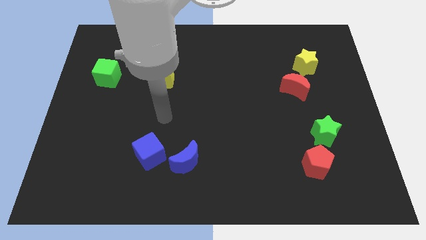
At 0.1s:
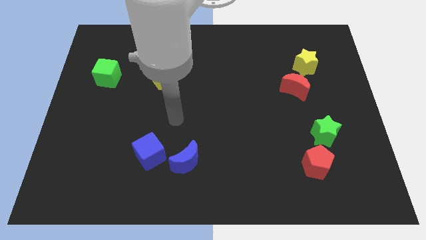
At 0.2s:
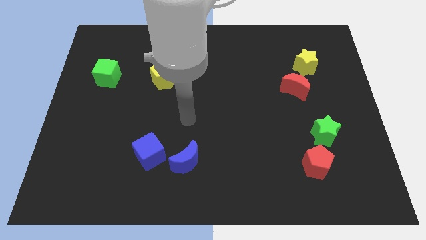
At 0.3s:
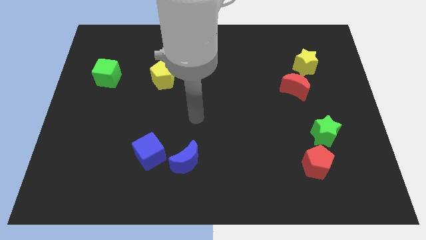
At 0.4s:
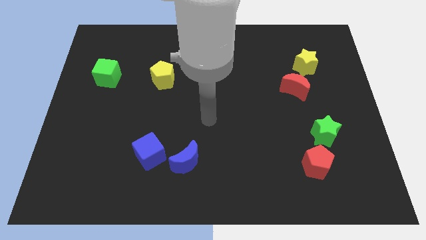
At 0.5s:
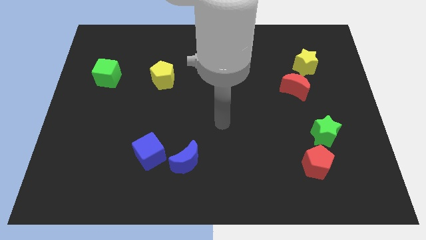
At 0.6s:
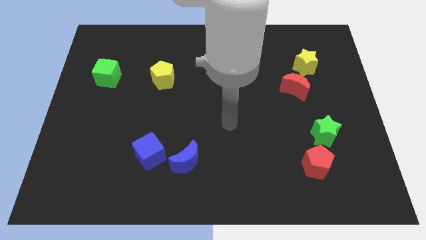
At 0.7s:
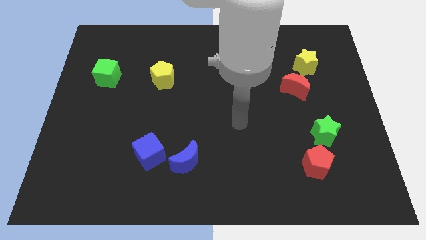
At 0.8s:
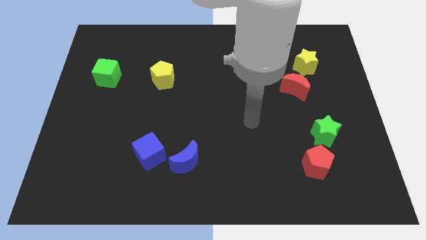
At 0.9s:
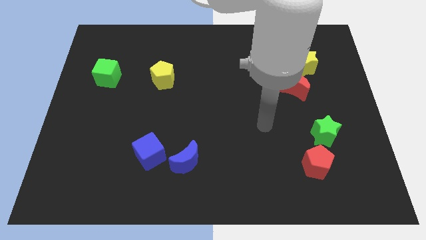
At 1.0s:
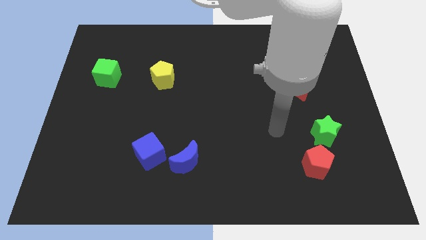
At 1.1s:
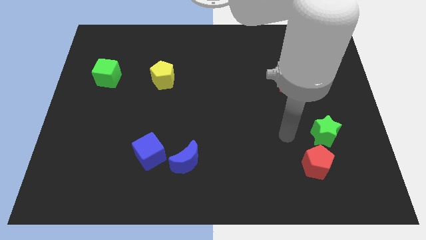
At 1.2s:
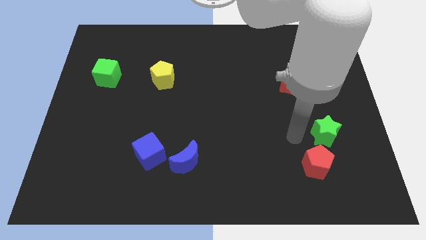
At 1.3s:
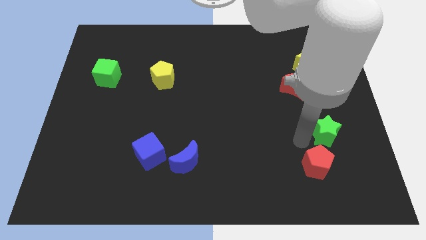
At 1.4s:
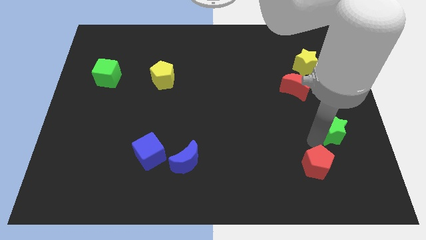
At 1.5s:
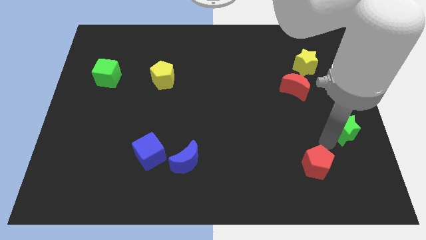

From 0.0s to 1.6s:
move the red pentagon away from the green star

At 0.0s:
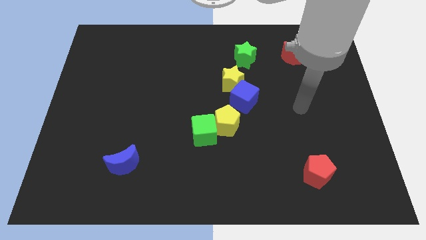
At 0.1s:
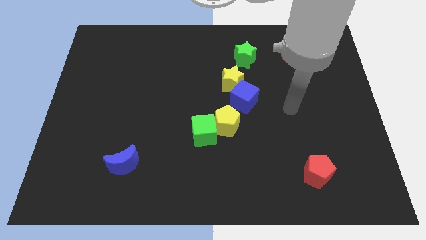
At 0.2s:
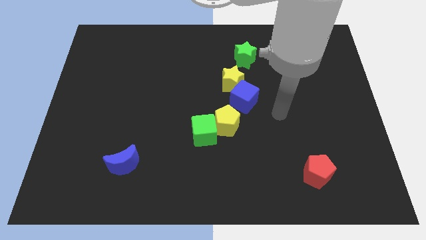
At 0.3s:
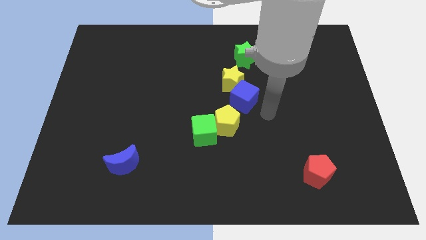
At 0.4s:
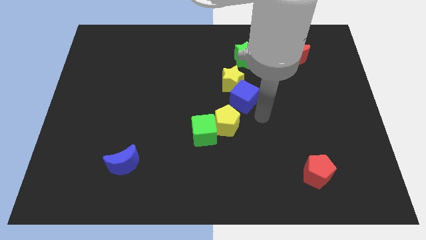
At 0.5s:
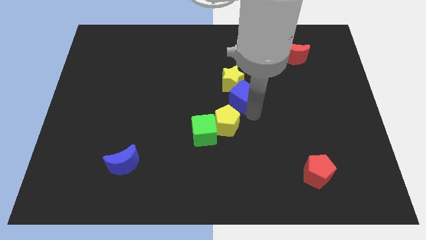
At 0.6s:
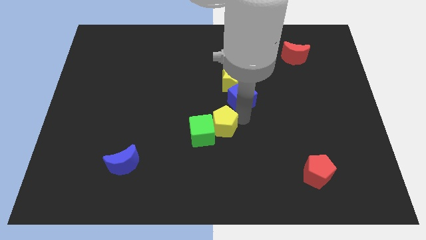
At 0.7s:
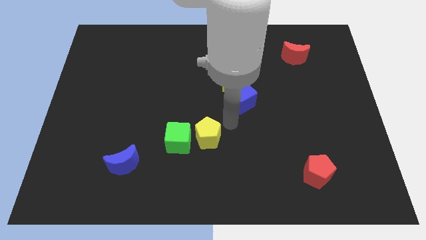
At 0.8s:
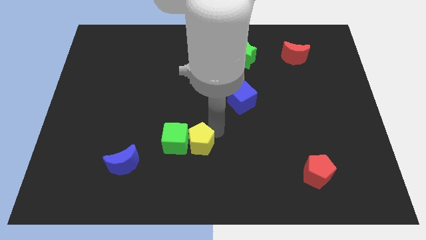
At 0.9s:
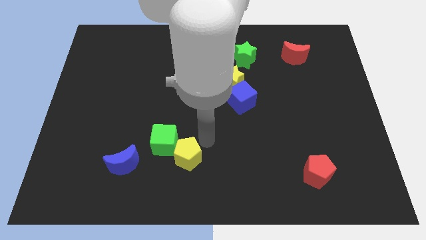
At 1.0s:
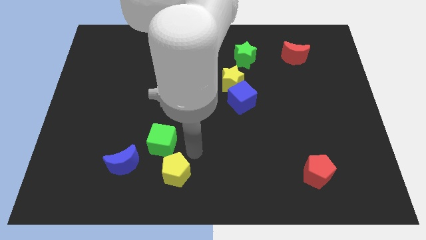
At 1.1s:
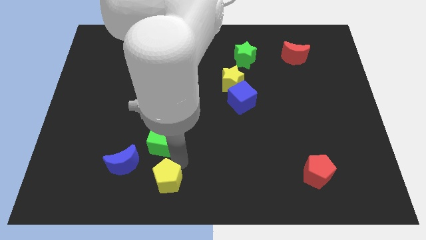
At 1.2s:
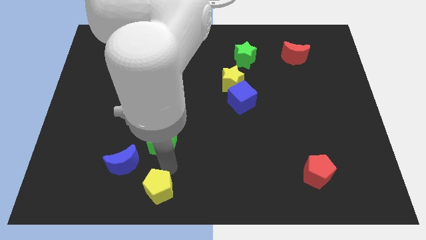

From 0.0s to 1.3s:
separate the green cube from the yellow pentagon

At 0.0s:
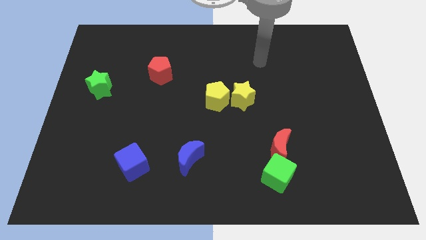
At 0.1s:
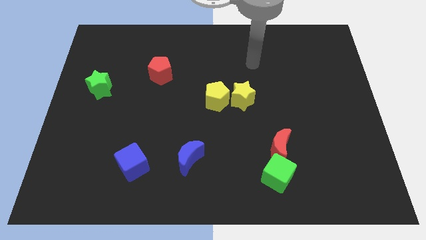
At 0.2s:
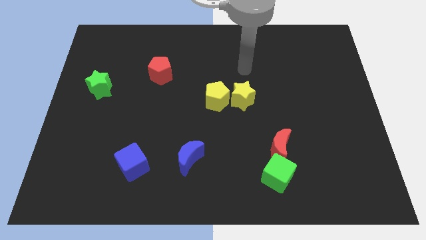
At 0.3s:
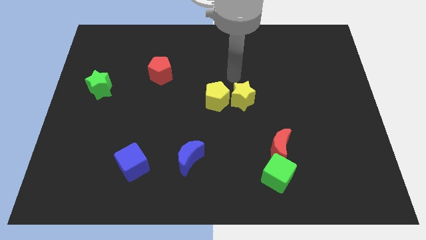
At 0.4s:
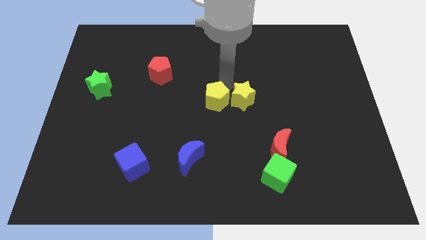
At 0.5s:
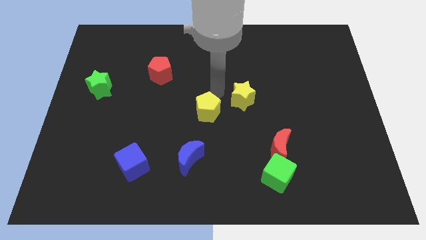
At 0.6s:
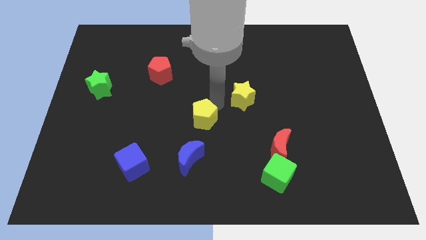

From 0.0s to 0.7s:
move the yellow star away from the yellow pentagon

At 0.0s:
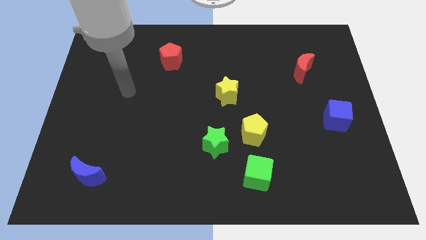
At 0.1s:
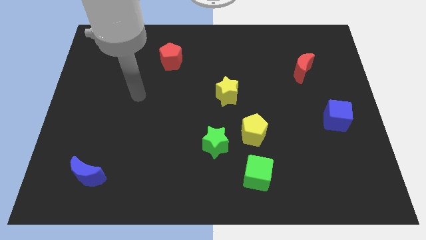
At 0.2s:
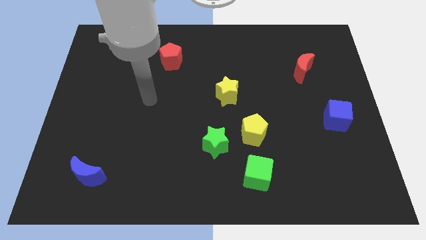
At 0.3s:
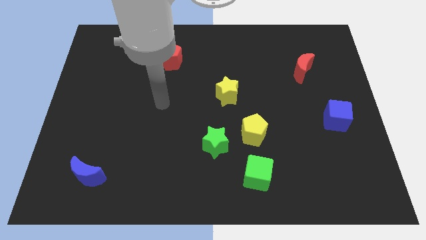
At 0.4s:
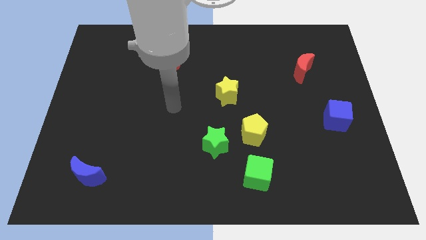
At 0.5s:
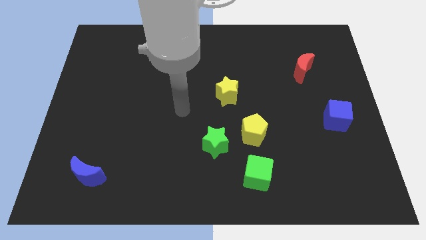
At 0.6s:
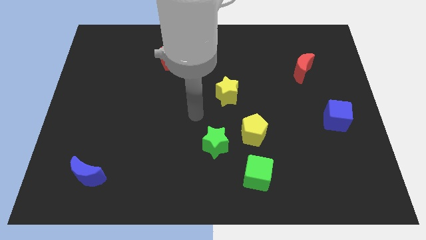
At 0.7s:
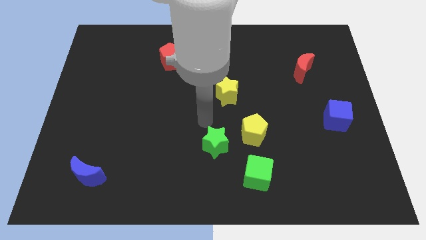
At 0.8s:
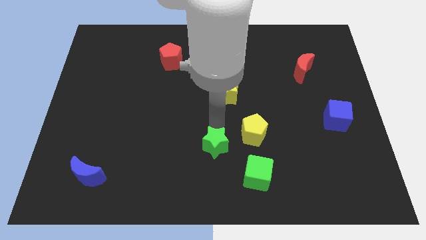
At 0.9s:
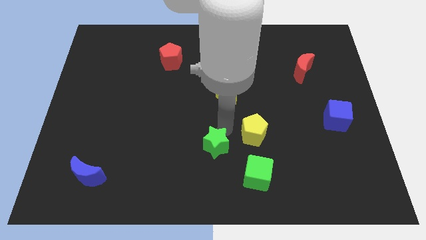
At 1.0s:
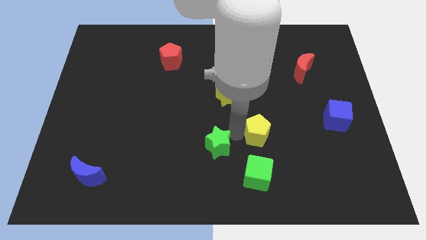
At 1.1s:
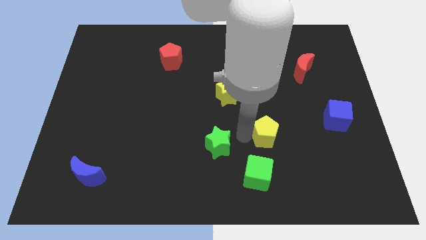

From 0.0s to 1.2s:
move the green star away from the yellow pentagon

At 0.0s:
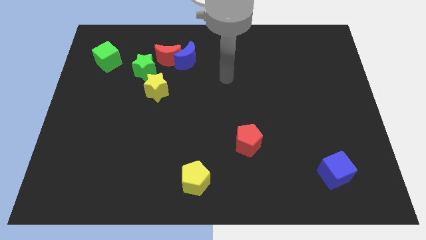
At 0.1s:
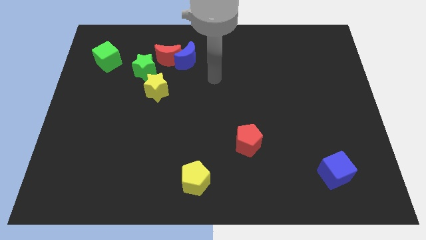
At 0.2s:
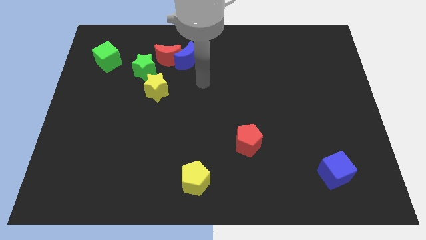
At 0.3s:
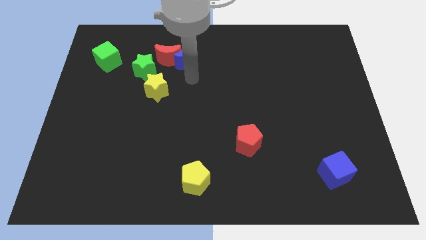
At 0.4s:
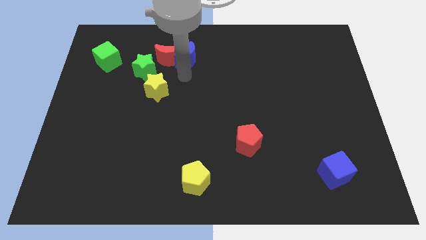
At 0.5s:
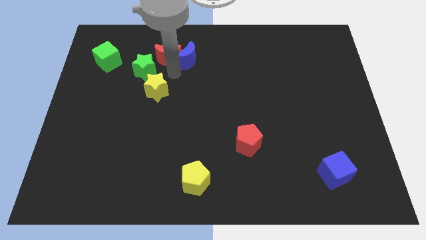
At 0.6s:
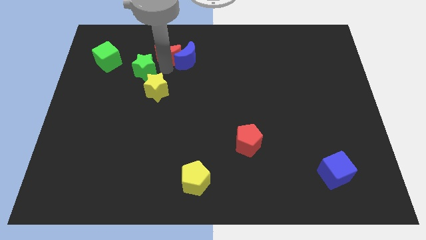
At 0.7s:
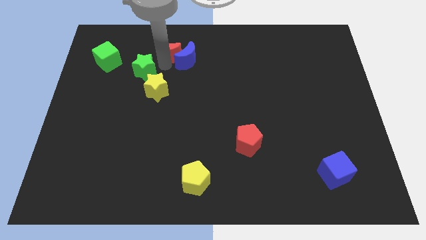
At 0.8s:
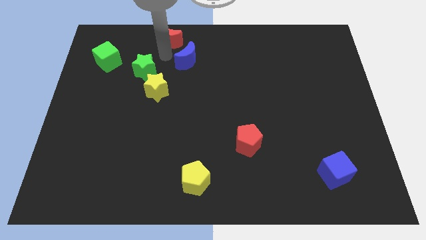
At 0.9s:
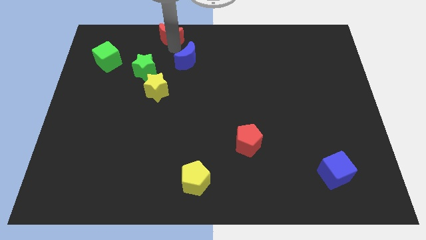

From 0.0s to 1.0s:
separate the blue moon from the red moon

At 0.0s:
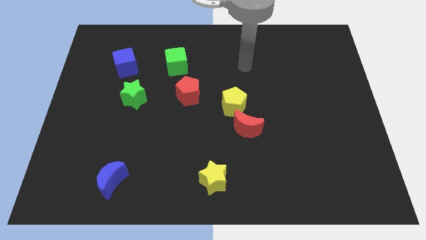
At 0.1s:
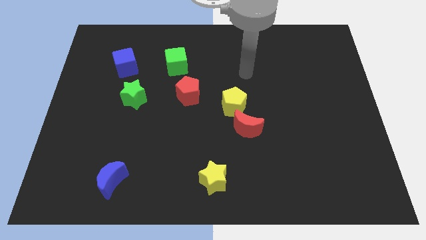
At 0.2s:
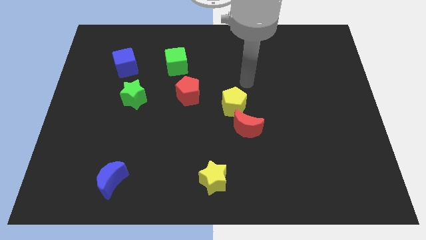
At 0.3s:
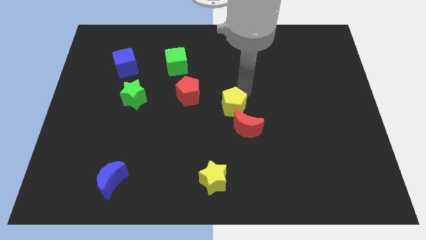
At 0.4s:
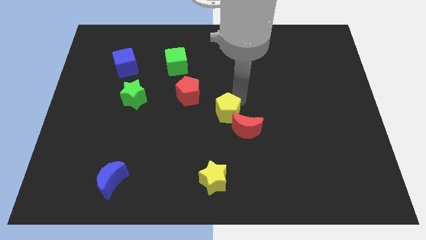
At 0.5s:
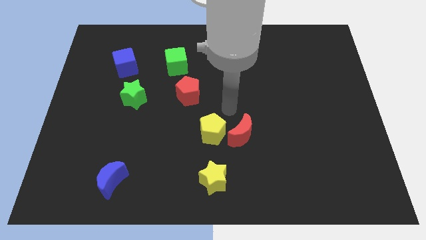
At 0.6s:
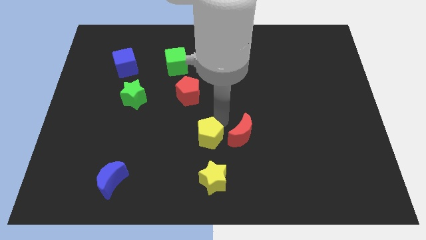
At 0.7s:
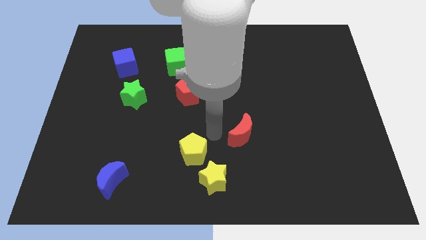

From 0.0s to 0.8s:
separate the red moon from the yellow pentagon

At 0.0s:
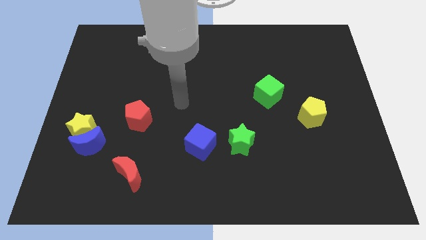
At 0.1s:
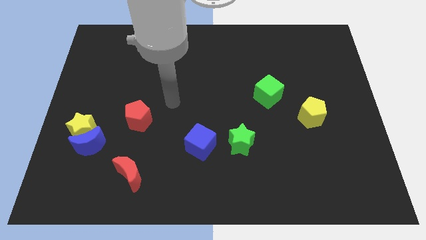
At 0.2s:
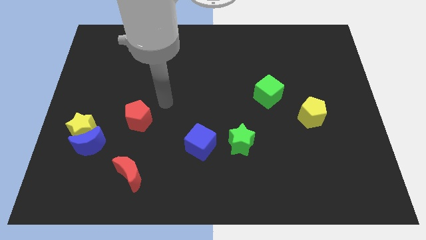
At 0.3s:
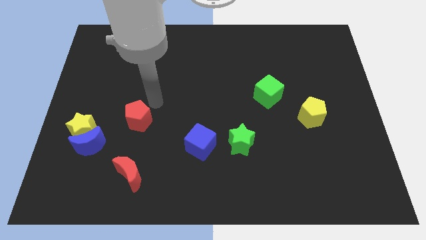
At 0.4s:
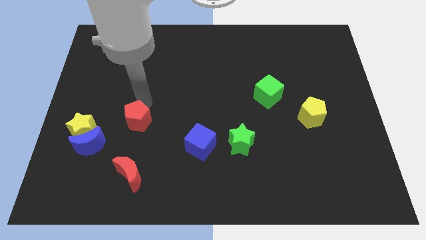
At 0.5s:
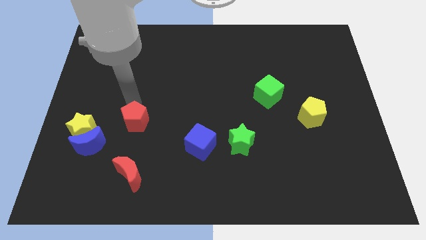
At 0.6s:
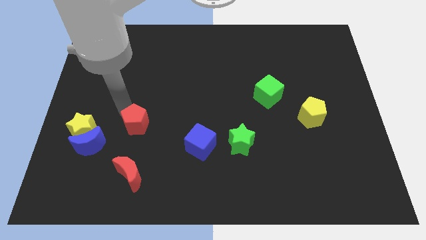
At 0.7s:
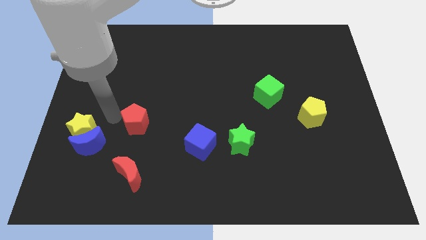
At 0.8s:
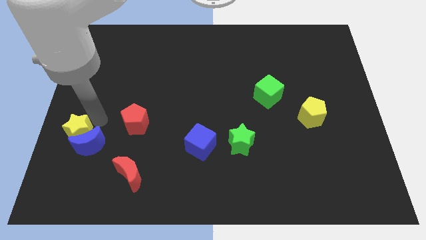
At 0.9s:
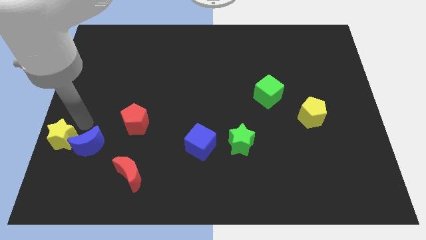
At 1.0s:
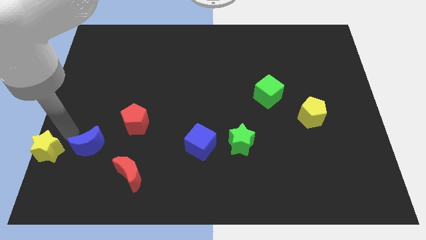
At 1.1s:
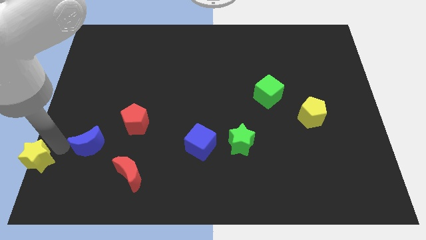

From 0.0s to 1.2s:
move the blue moon away from the yellow star

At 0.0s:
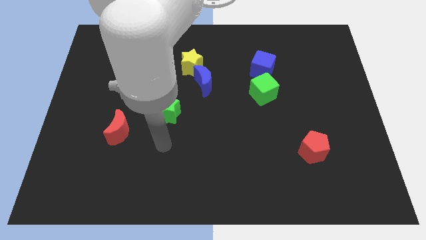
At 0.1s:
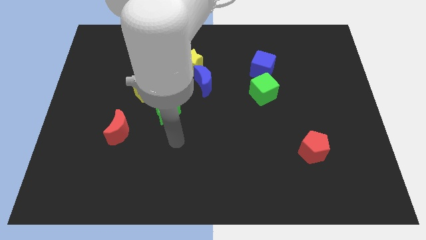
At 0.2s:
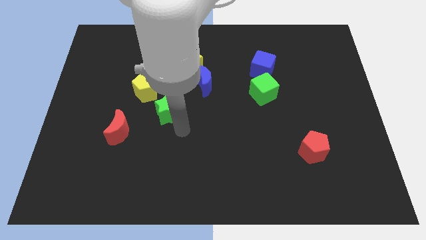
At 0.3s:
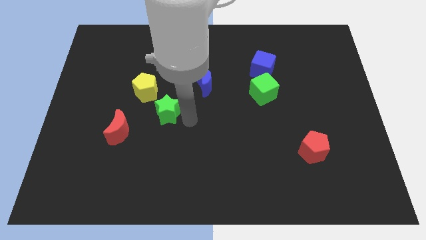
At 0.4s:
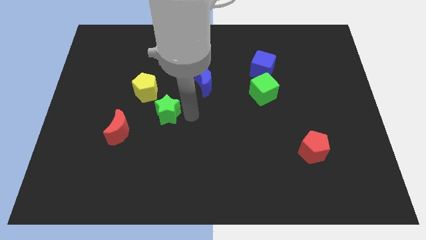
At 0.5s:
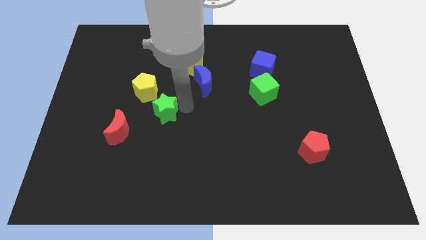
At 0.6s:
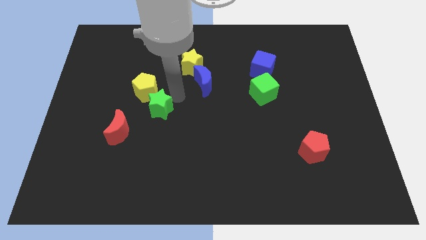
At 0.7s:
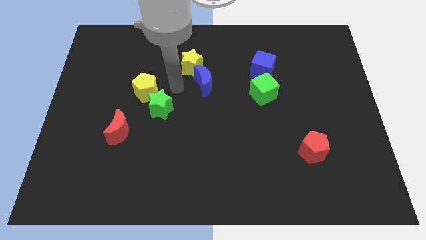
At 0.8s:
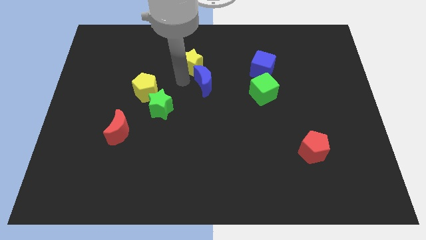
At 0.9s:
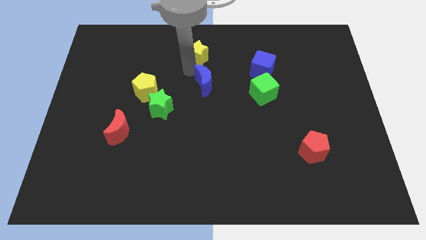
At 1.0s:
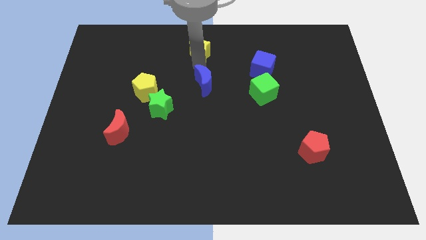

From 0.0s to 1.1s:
pull the blue moon apart from the yellow star

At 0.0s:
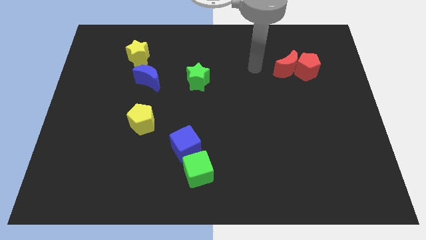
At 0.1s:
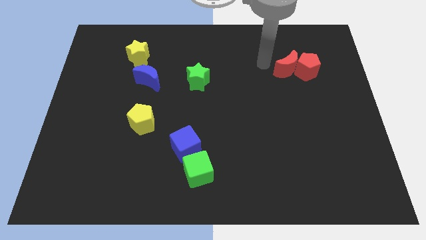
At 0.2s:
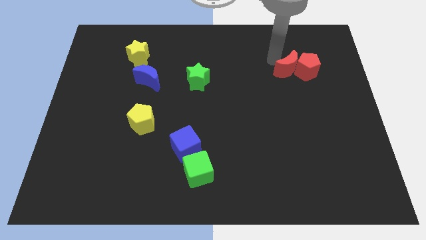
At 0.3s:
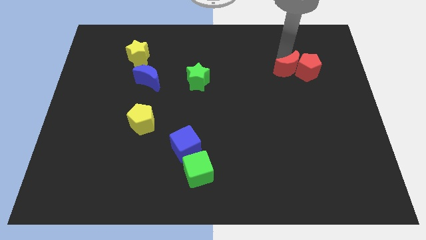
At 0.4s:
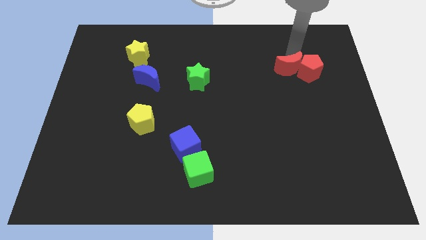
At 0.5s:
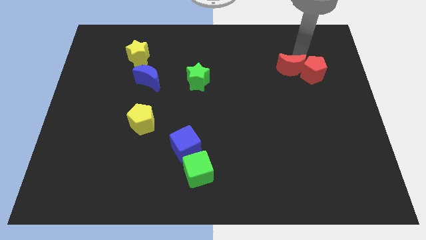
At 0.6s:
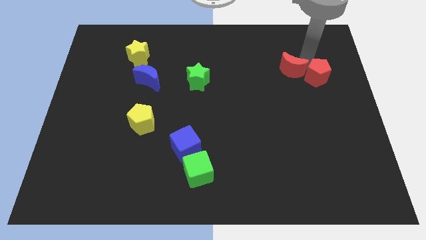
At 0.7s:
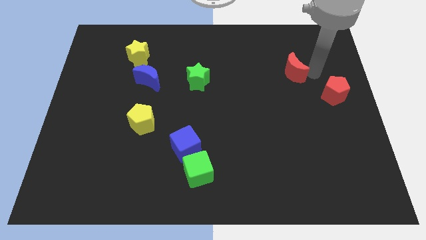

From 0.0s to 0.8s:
move the red moon away from the red pentagon
